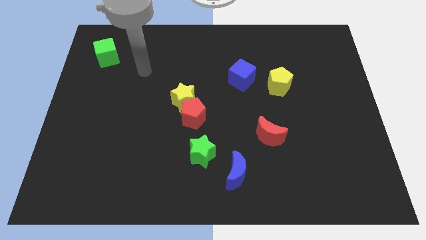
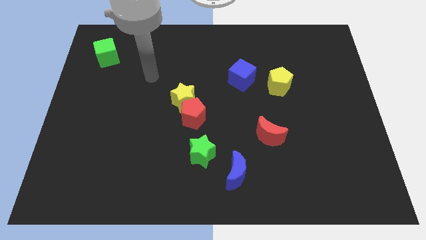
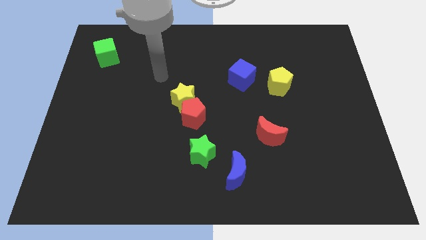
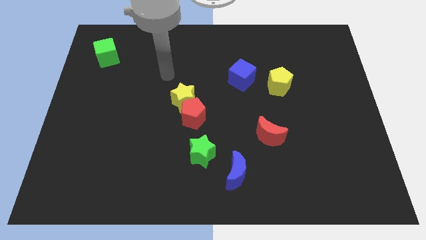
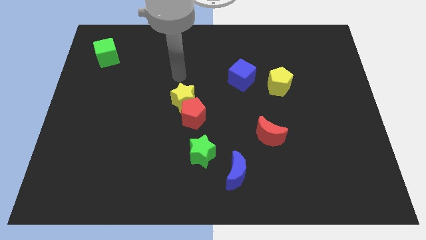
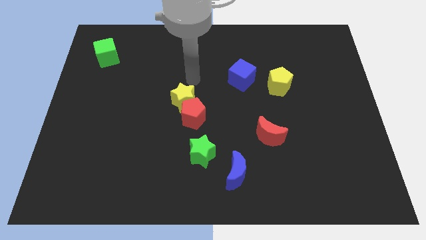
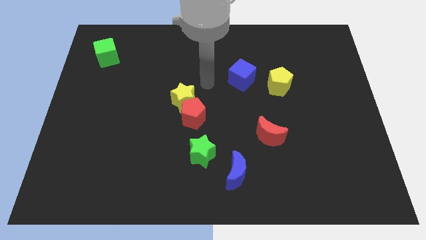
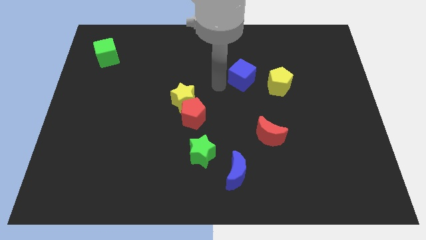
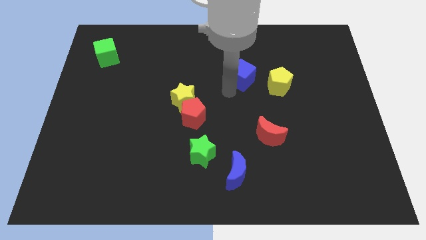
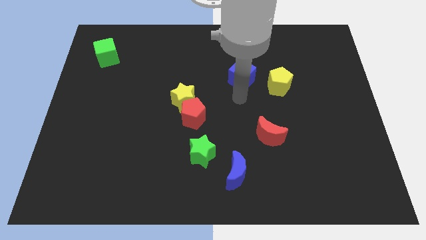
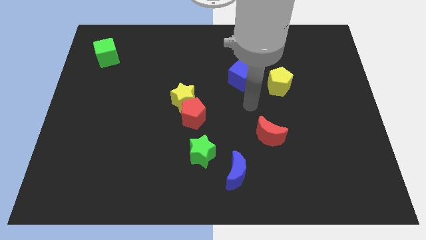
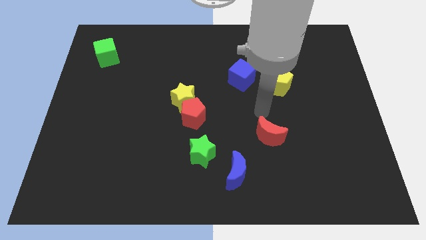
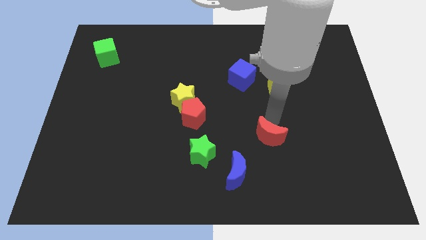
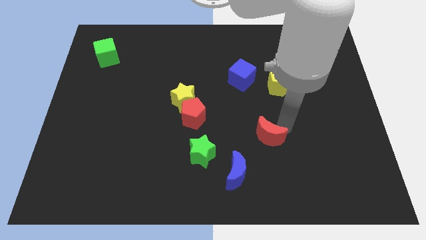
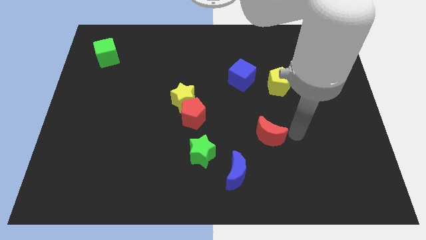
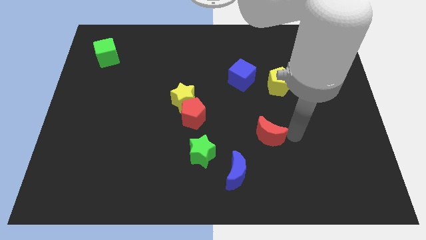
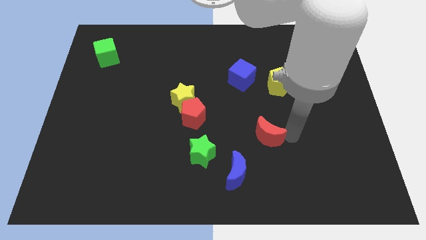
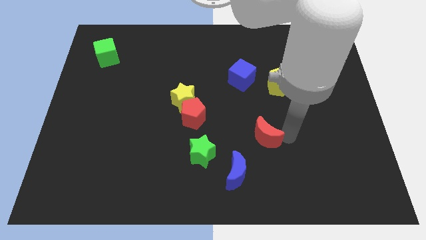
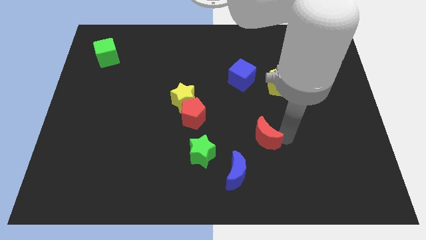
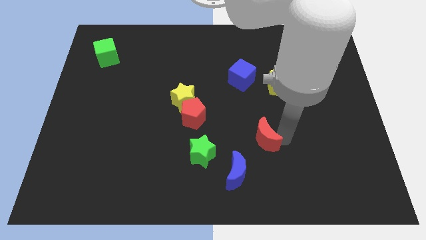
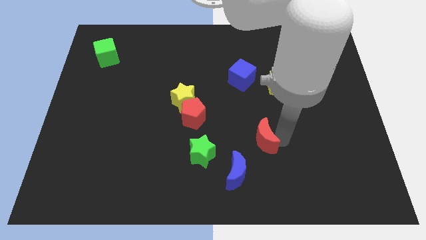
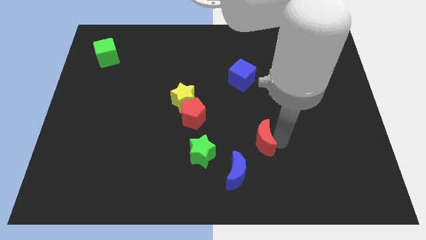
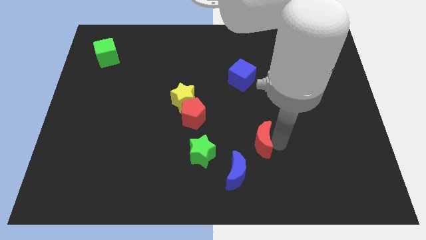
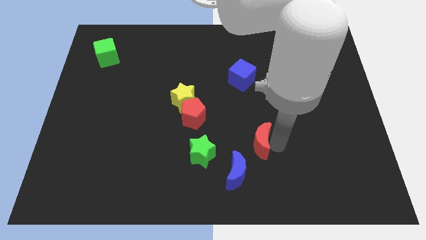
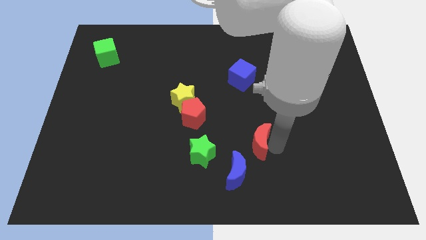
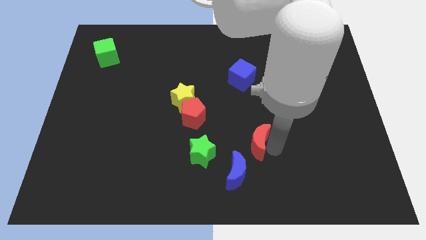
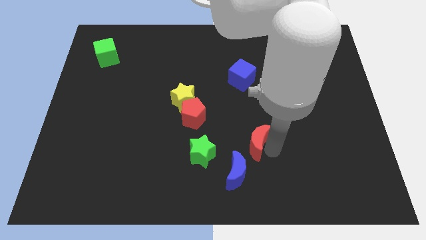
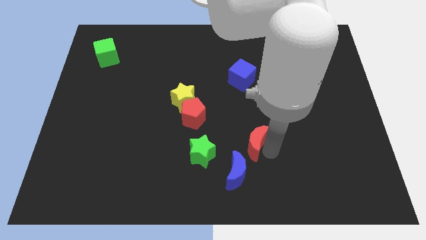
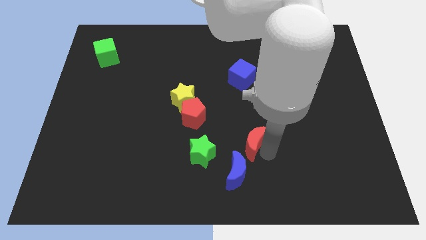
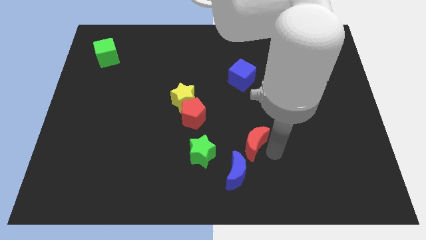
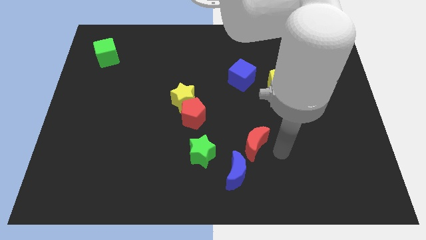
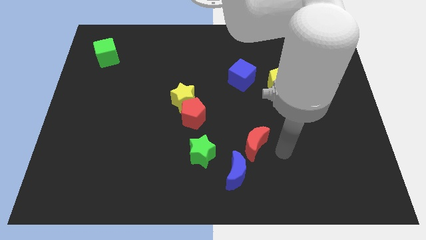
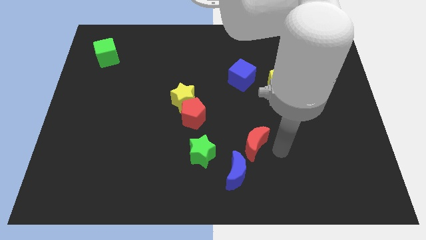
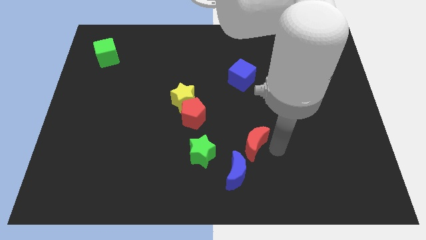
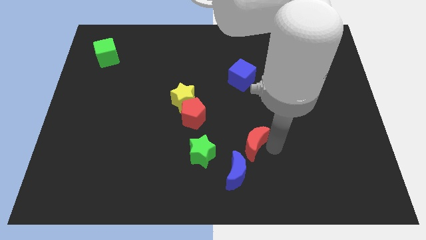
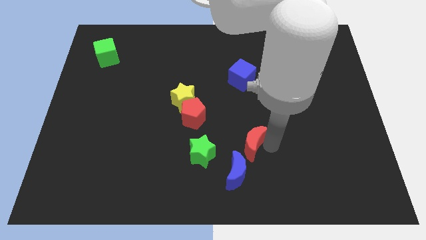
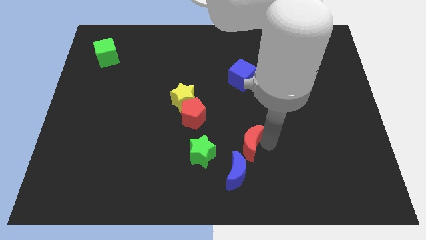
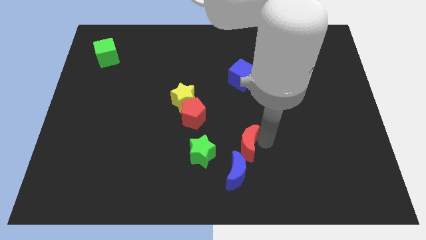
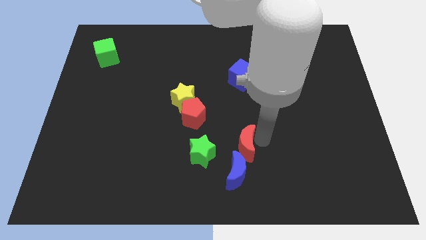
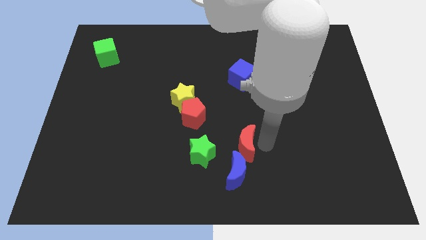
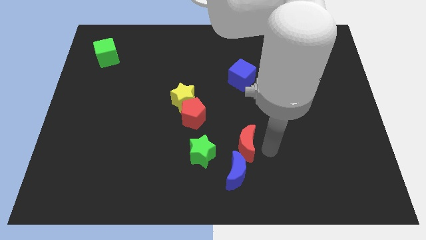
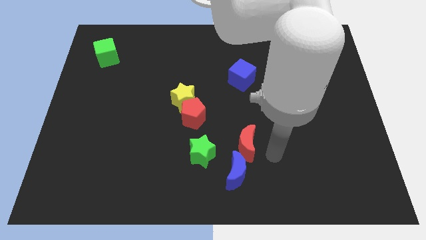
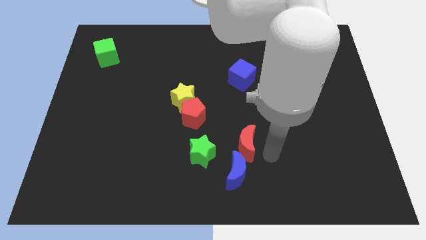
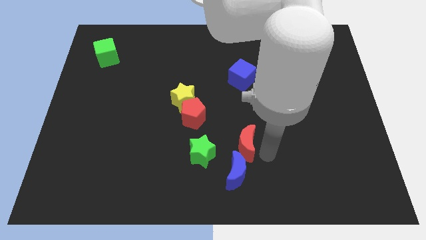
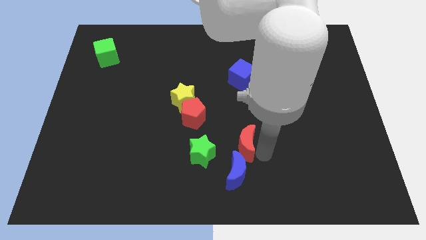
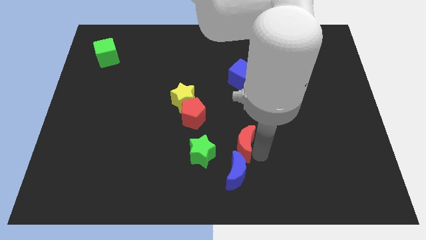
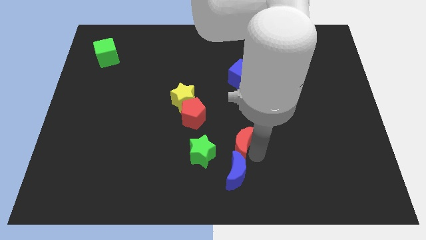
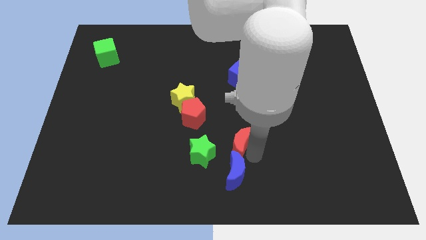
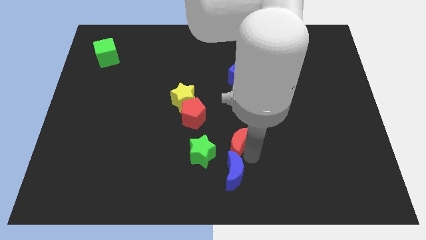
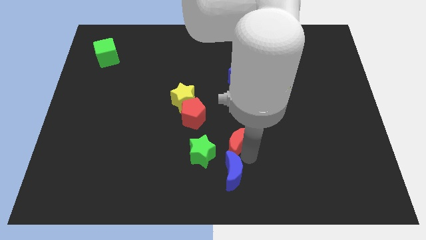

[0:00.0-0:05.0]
slide the red moon slightly left

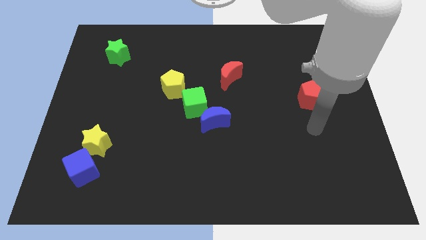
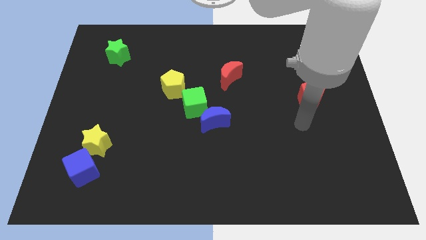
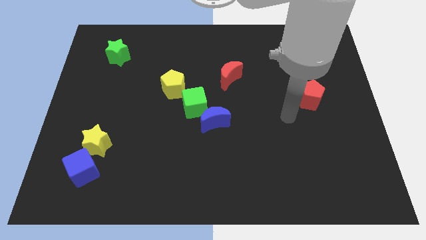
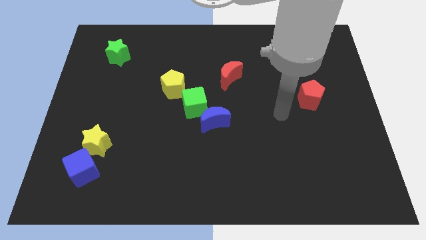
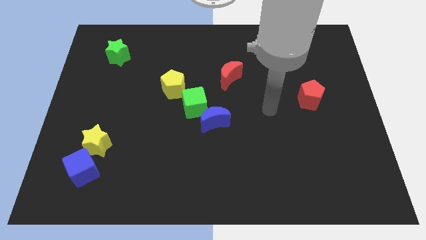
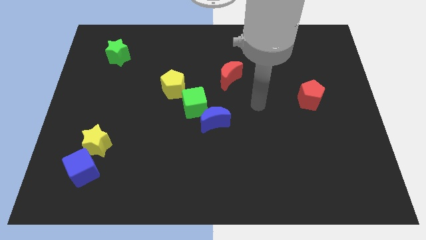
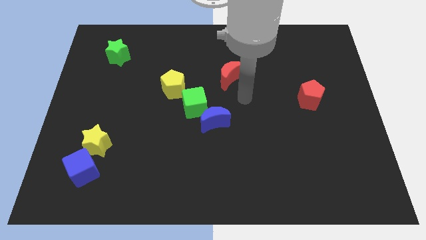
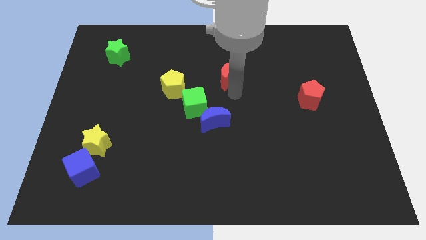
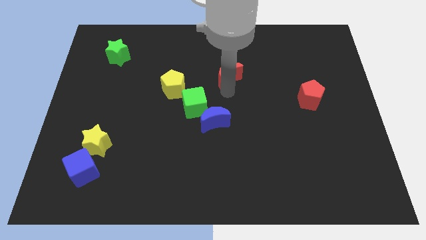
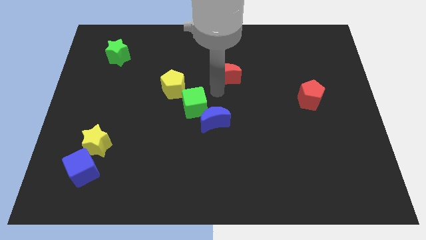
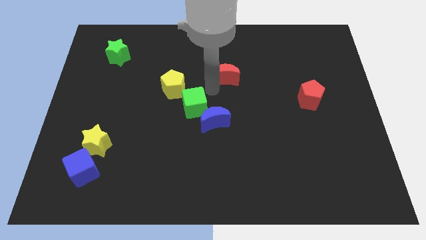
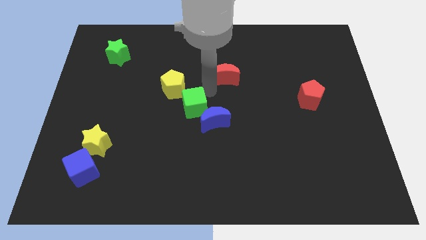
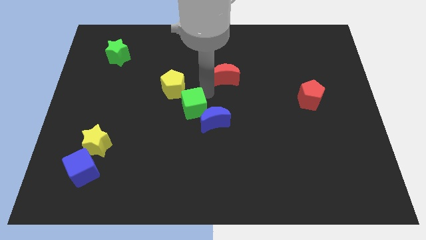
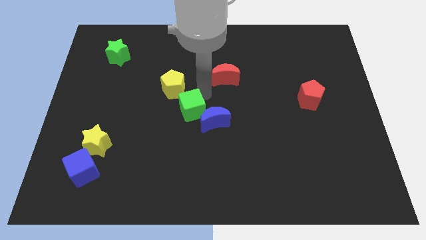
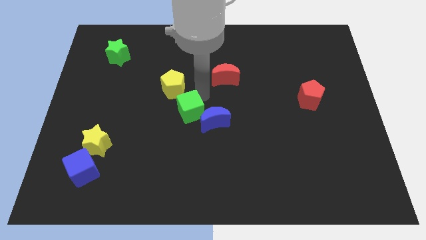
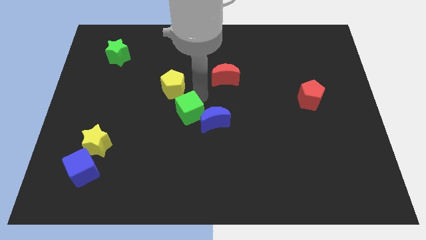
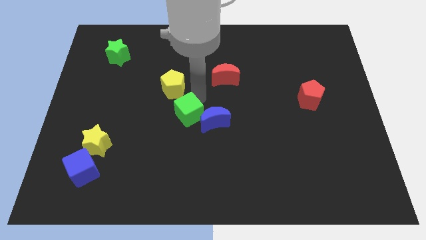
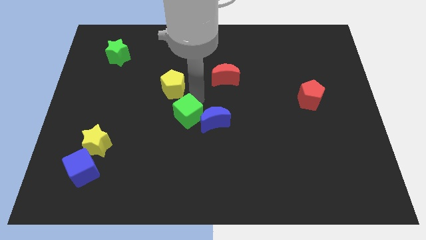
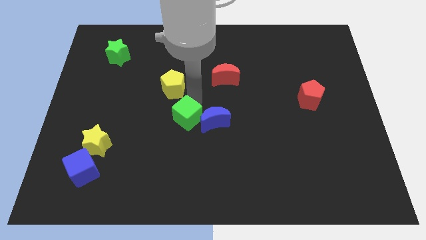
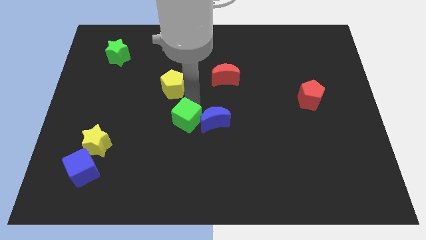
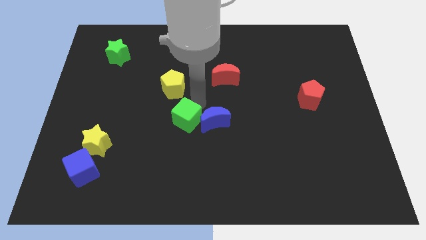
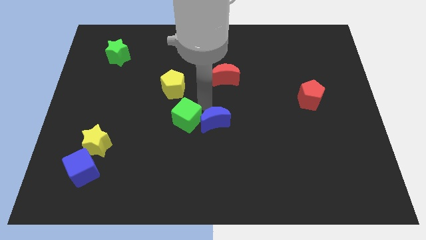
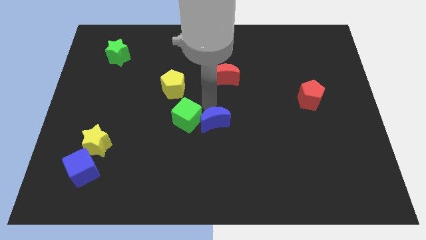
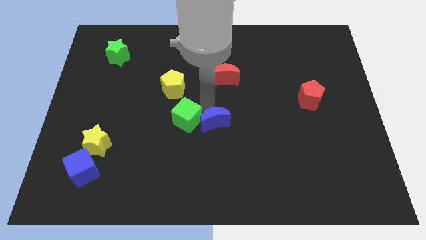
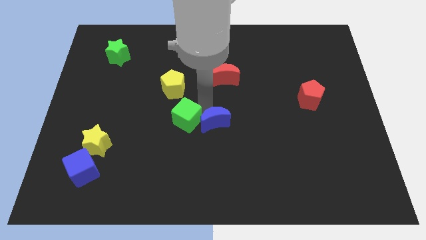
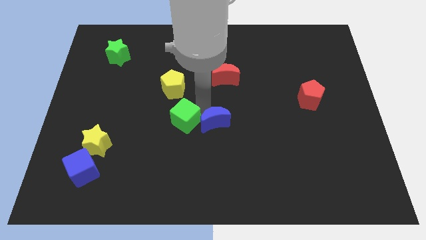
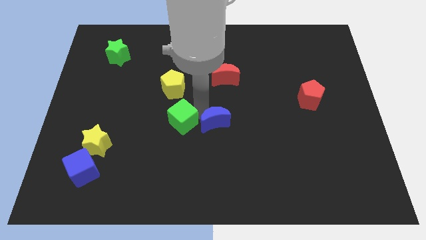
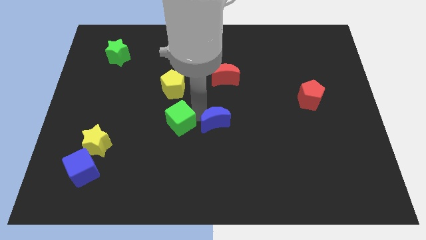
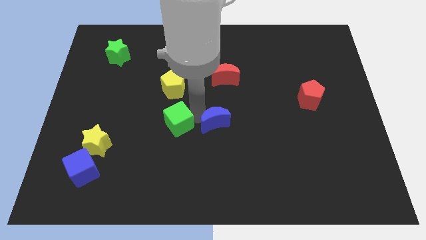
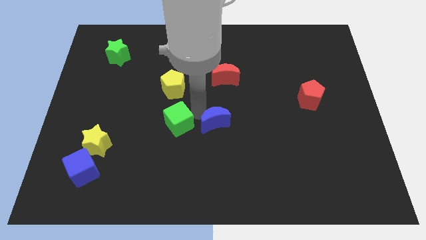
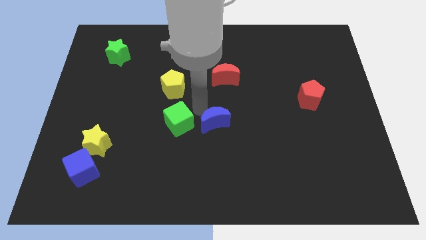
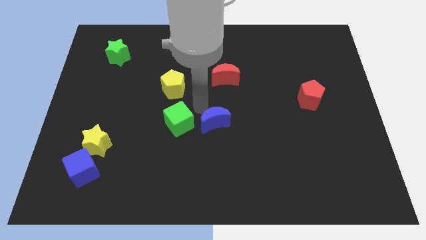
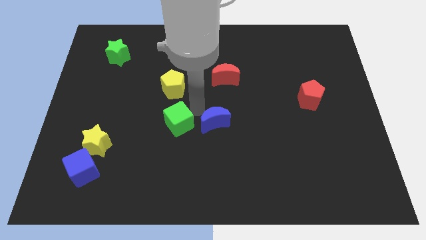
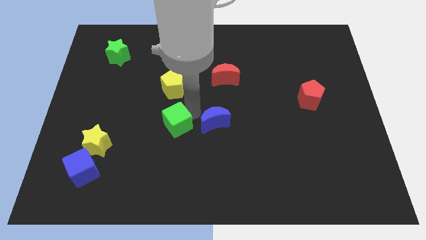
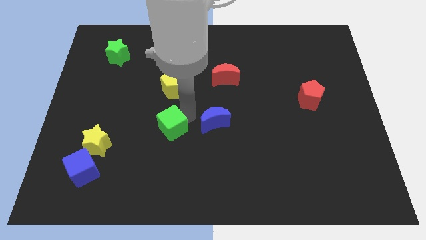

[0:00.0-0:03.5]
move the green cube downwards and to the left a little
